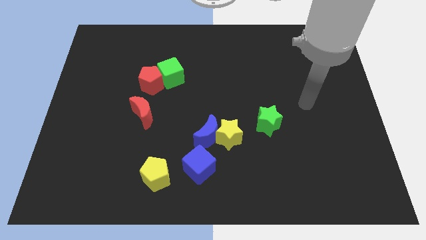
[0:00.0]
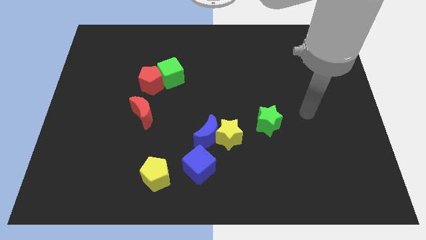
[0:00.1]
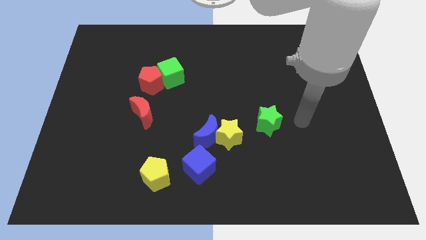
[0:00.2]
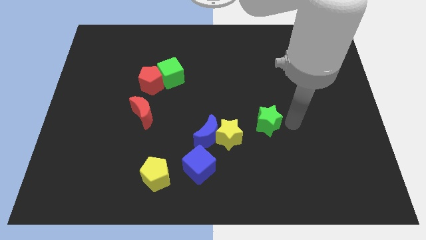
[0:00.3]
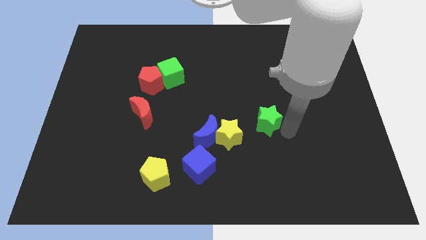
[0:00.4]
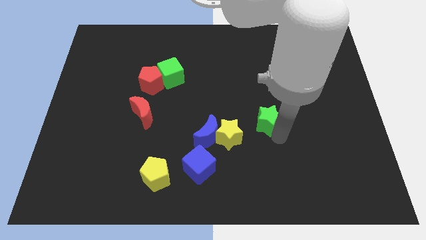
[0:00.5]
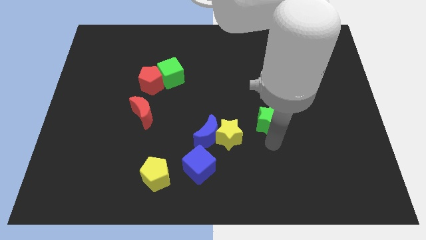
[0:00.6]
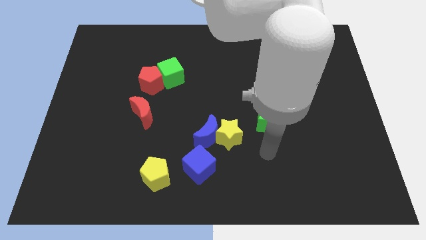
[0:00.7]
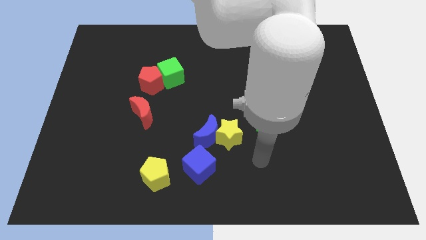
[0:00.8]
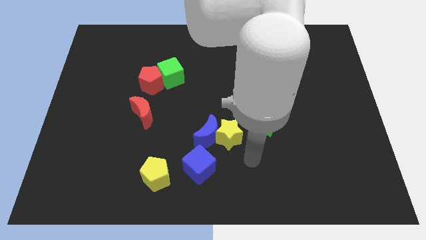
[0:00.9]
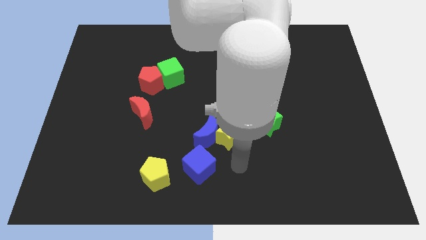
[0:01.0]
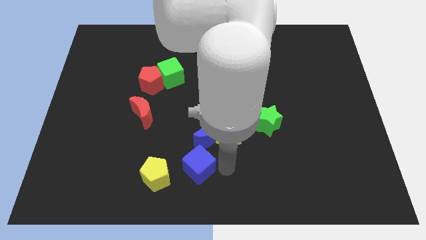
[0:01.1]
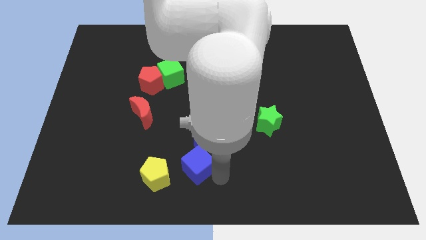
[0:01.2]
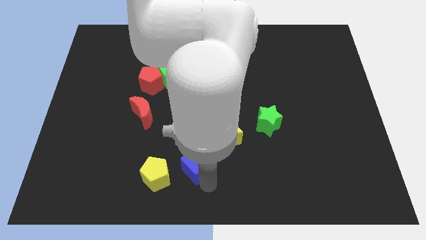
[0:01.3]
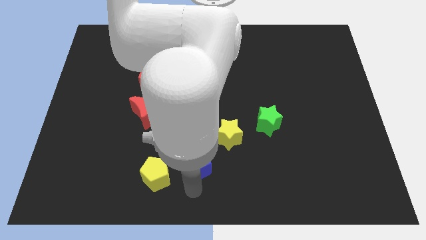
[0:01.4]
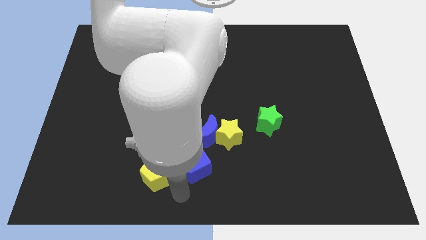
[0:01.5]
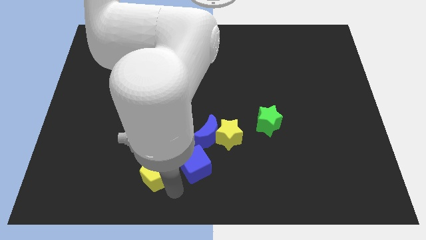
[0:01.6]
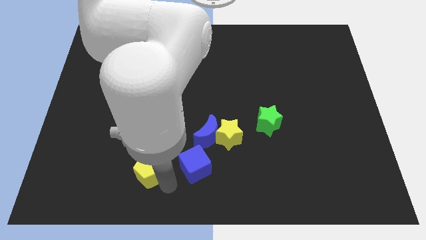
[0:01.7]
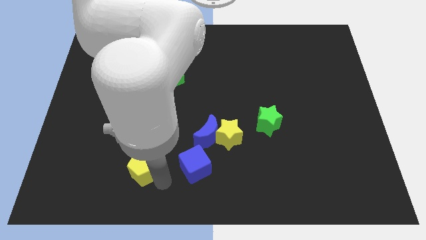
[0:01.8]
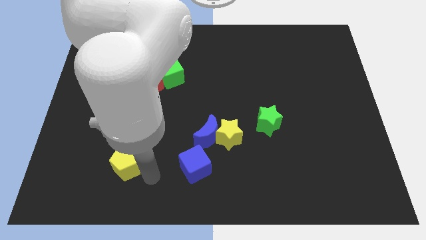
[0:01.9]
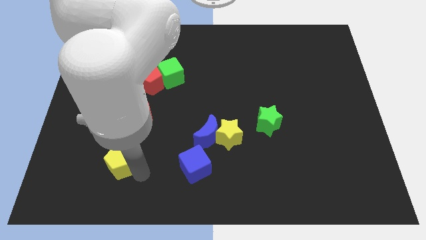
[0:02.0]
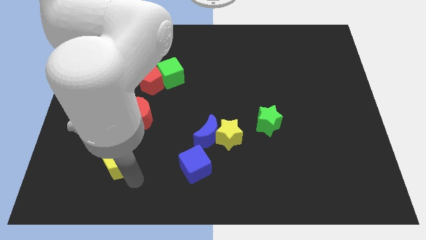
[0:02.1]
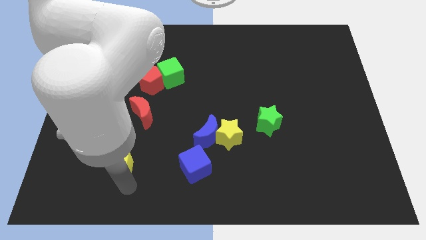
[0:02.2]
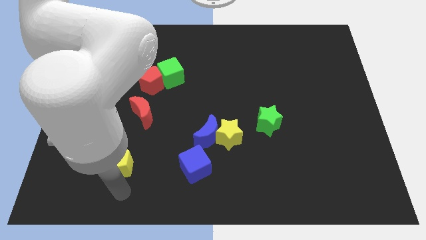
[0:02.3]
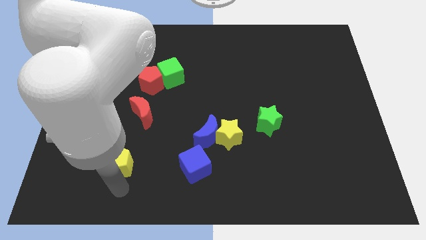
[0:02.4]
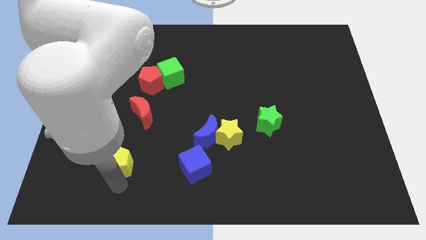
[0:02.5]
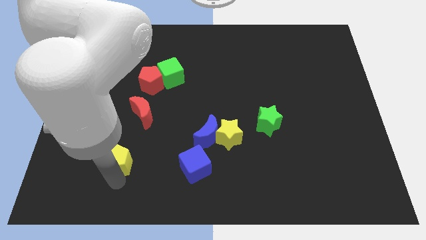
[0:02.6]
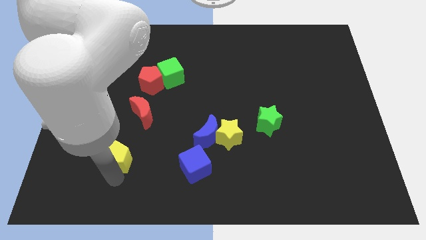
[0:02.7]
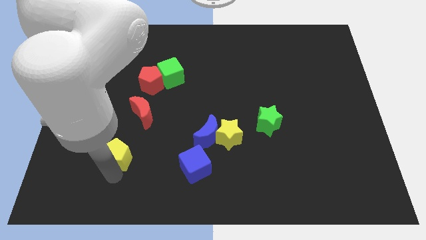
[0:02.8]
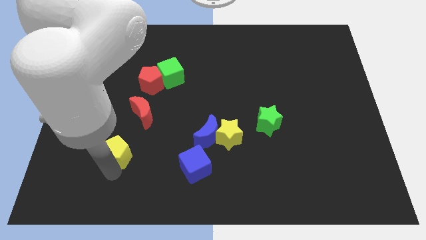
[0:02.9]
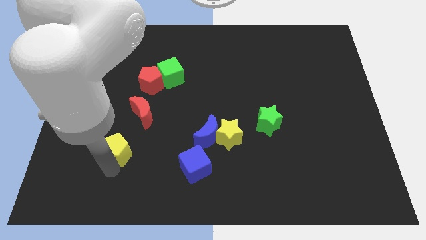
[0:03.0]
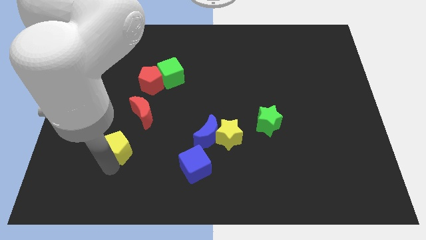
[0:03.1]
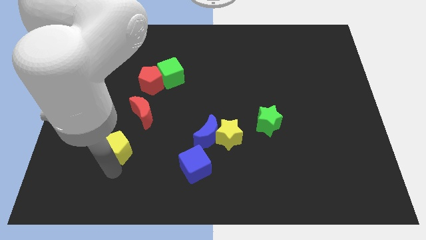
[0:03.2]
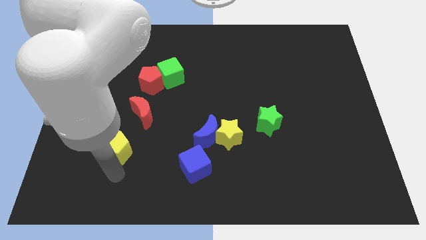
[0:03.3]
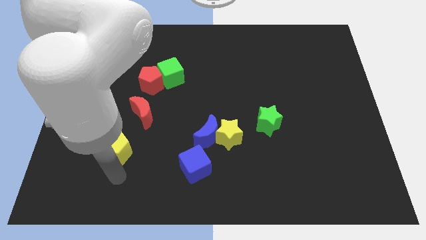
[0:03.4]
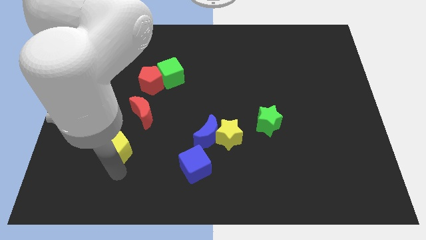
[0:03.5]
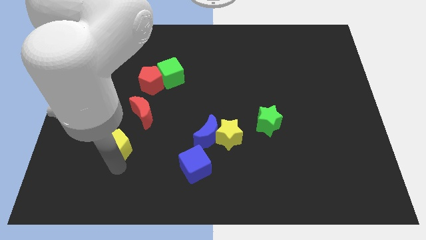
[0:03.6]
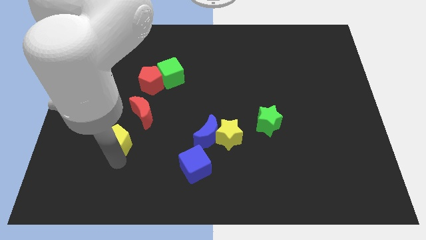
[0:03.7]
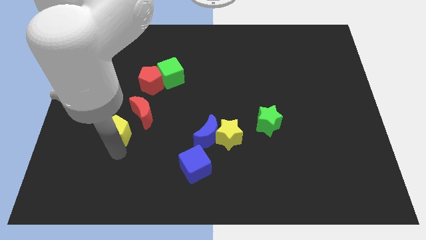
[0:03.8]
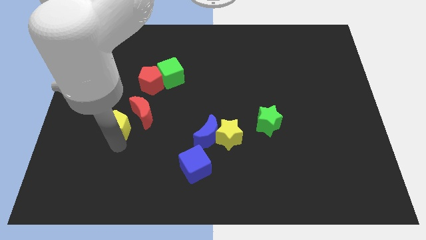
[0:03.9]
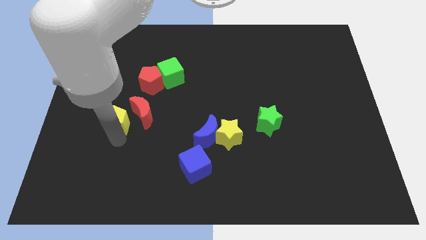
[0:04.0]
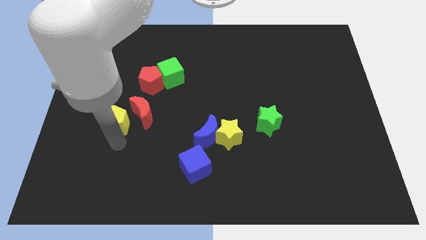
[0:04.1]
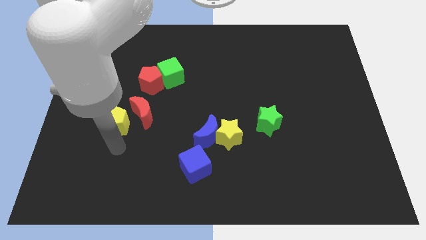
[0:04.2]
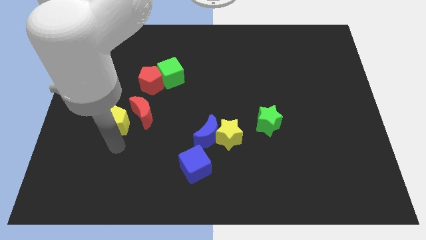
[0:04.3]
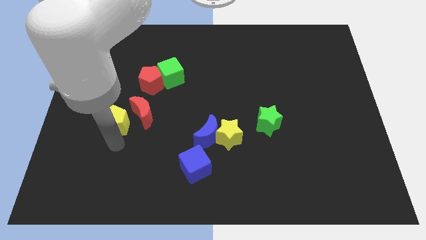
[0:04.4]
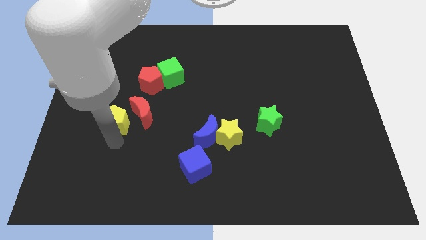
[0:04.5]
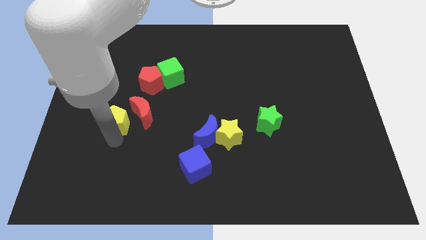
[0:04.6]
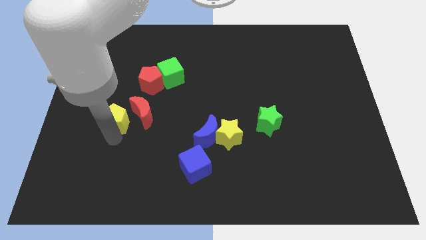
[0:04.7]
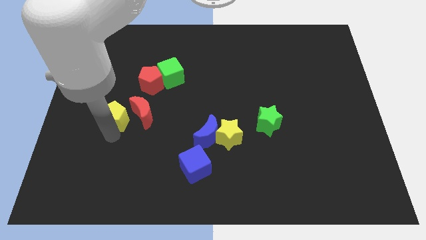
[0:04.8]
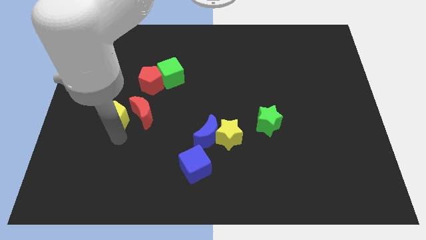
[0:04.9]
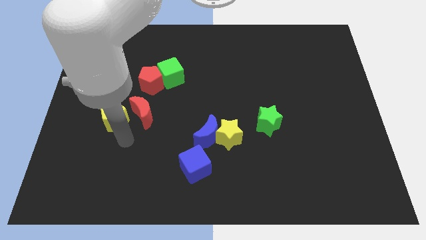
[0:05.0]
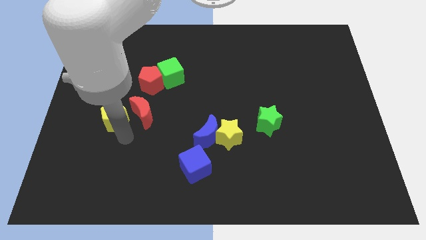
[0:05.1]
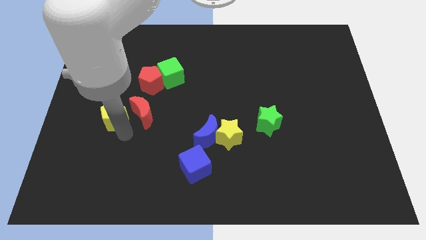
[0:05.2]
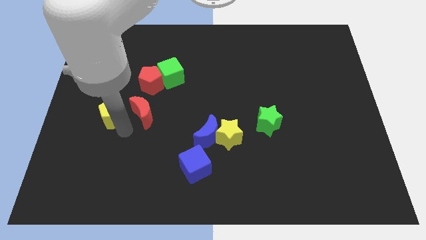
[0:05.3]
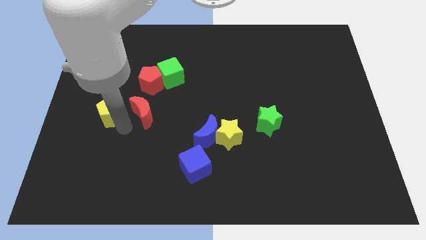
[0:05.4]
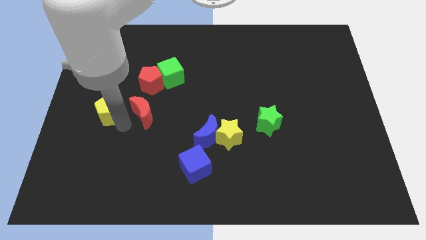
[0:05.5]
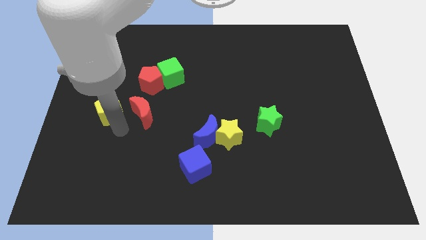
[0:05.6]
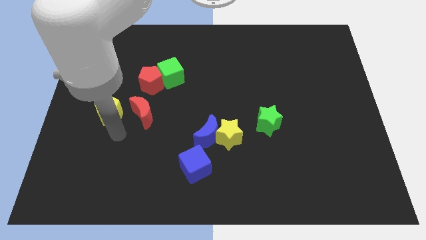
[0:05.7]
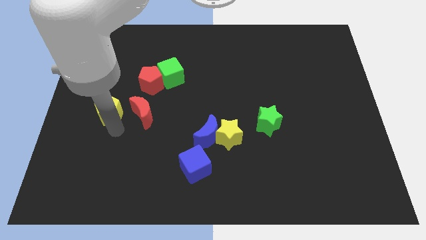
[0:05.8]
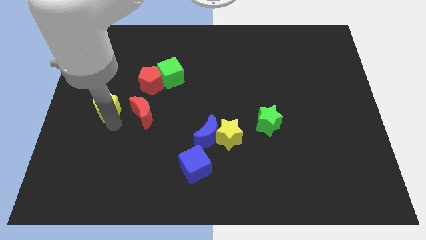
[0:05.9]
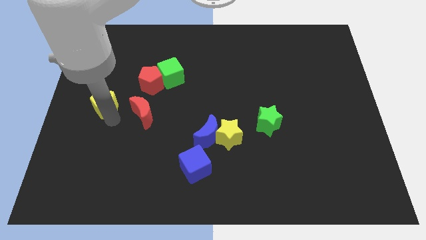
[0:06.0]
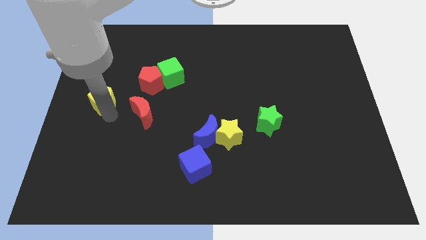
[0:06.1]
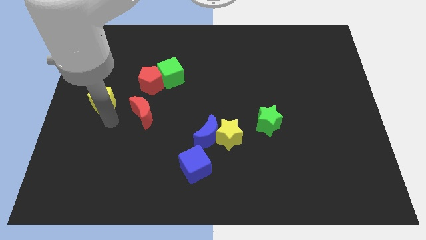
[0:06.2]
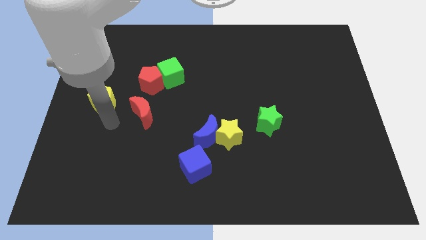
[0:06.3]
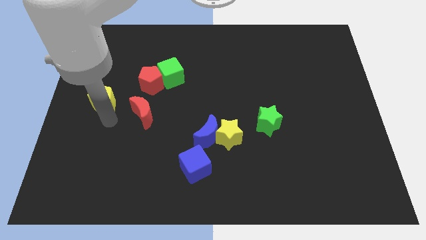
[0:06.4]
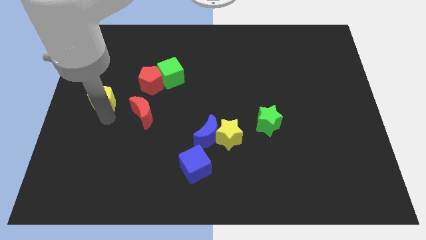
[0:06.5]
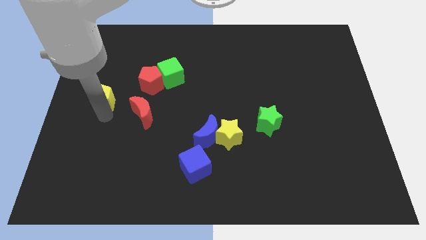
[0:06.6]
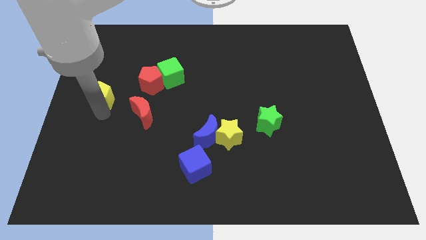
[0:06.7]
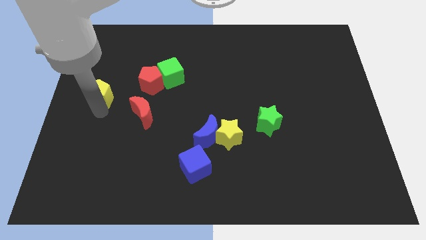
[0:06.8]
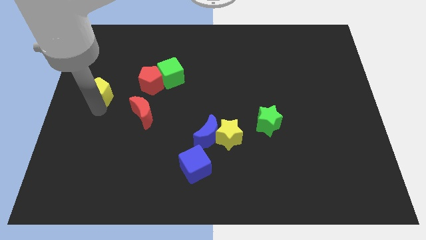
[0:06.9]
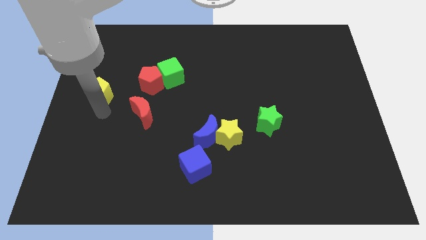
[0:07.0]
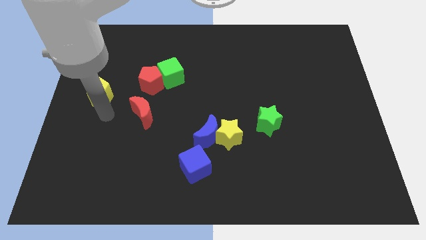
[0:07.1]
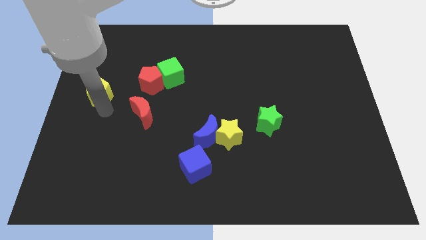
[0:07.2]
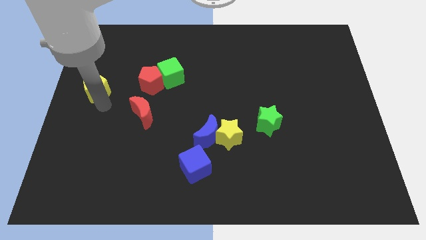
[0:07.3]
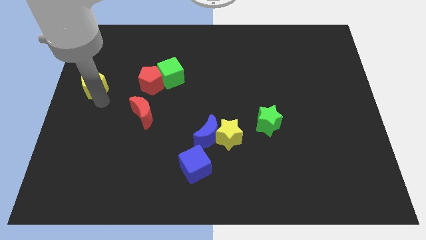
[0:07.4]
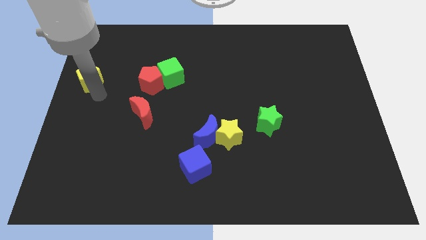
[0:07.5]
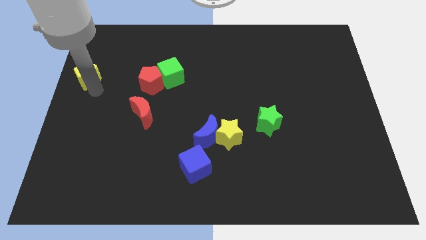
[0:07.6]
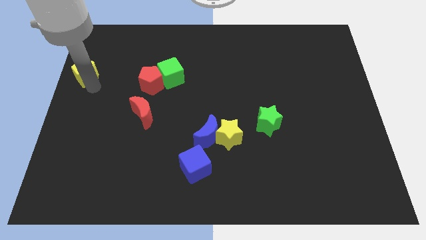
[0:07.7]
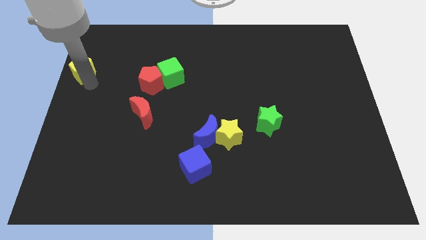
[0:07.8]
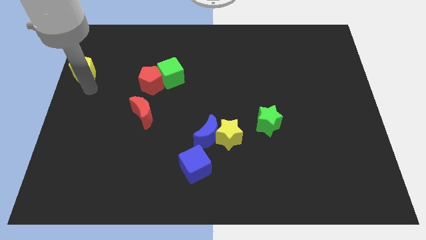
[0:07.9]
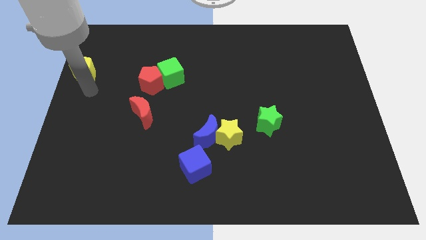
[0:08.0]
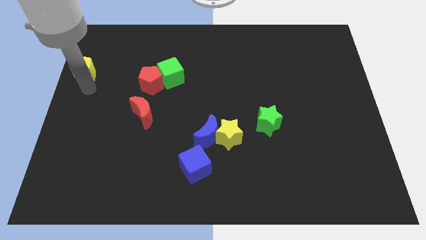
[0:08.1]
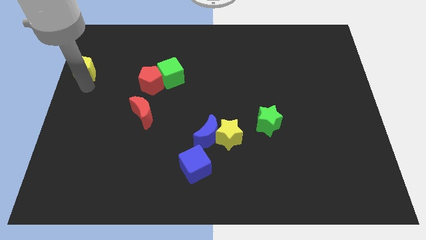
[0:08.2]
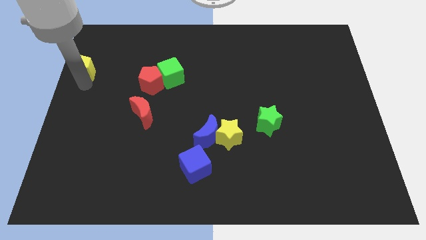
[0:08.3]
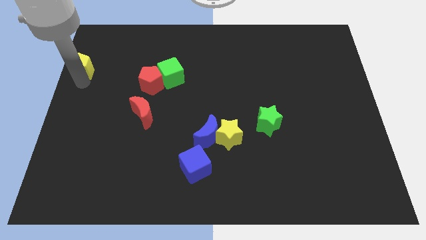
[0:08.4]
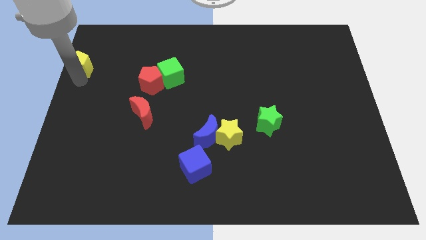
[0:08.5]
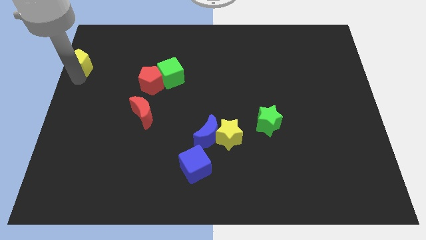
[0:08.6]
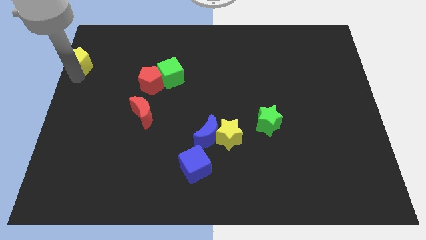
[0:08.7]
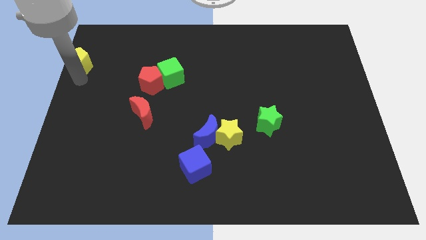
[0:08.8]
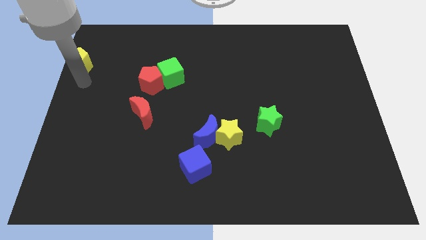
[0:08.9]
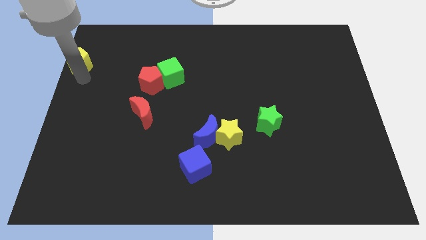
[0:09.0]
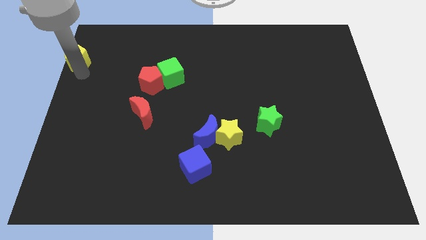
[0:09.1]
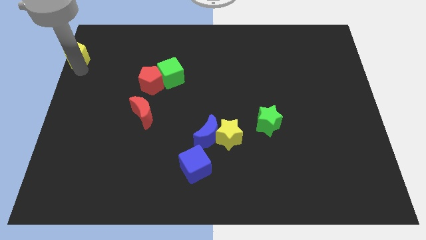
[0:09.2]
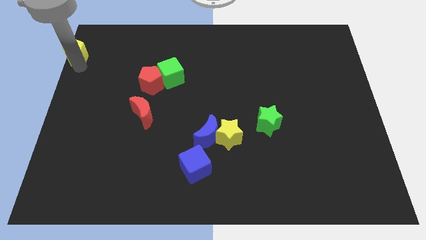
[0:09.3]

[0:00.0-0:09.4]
put the yellow pentagon to the top left of the board
